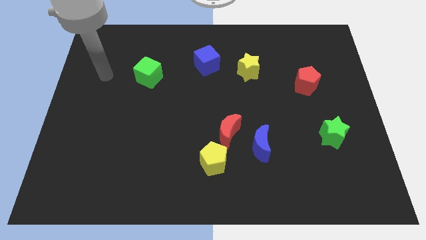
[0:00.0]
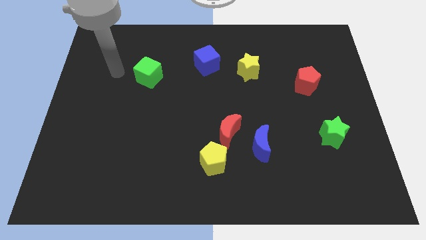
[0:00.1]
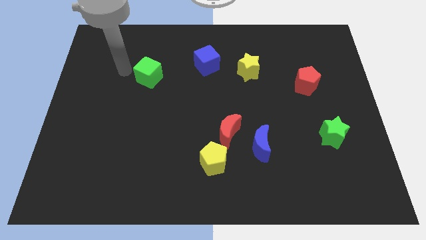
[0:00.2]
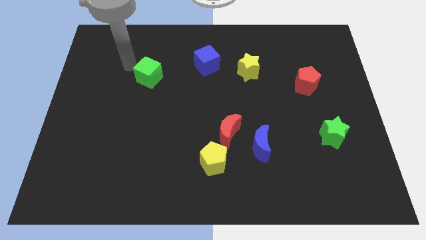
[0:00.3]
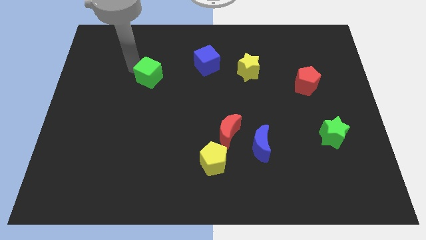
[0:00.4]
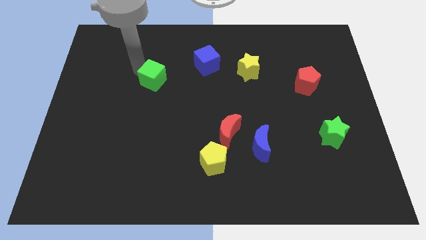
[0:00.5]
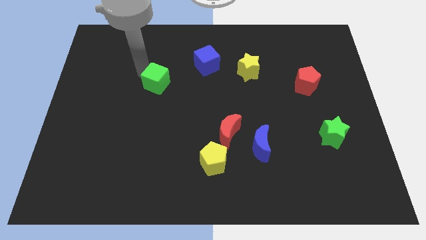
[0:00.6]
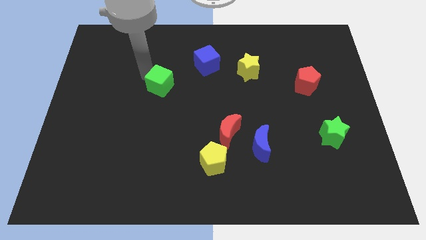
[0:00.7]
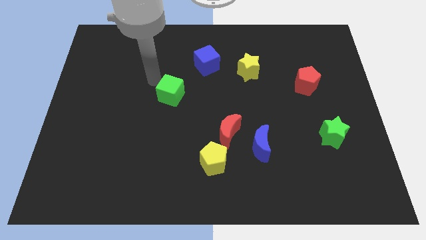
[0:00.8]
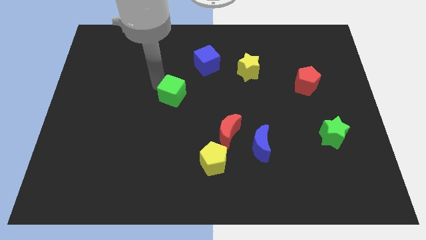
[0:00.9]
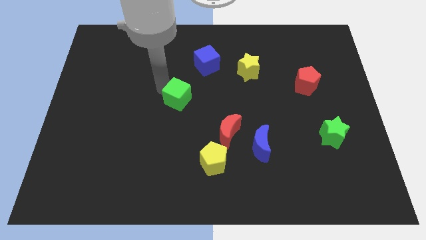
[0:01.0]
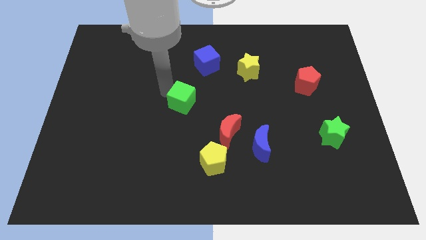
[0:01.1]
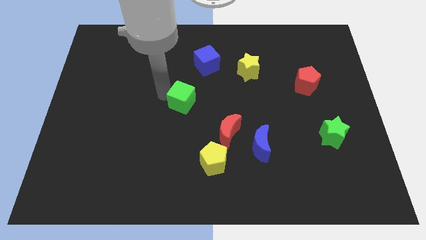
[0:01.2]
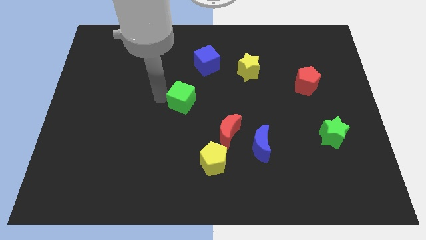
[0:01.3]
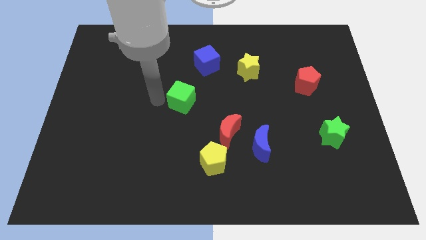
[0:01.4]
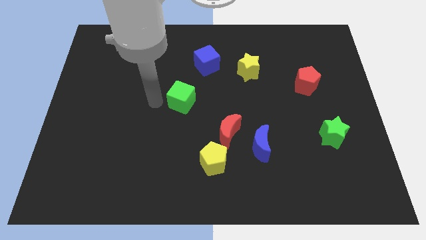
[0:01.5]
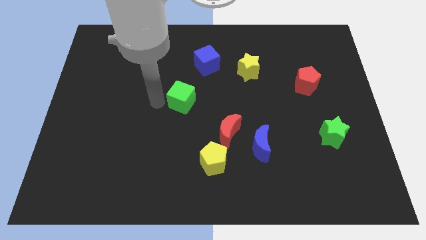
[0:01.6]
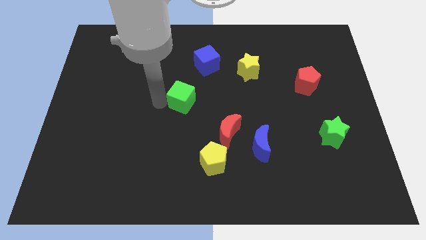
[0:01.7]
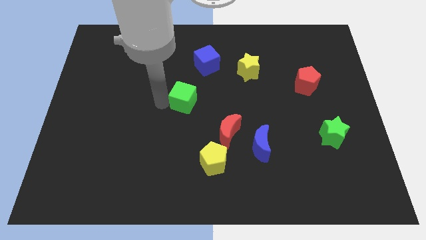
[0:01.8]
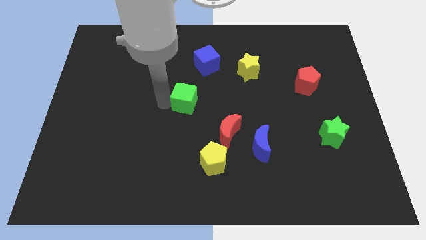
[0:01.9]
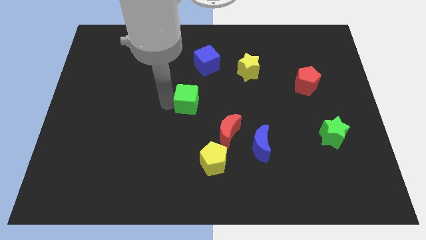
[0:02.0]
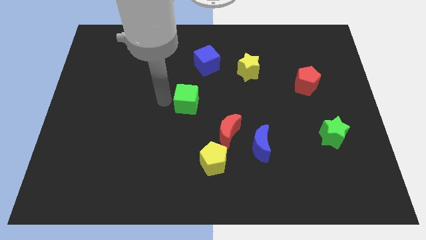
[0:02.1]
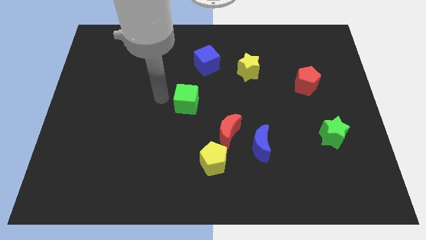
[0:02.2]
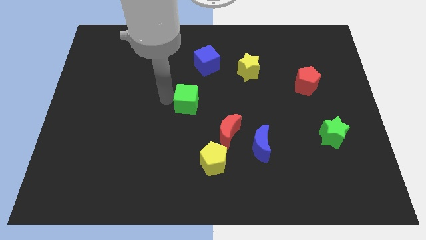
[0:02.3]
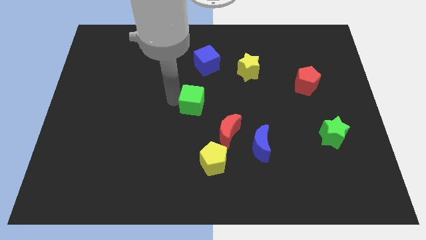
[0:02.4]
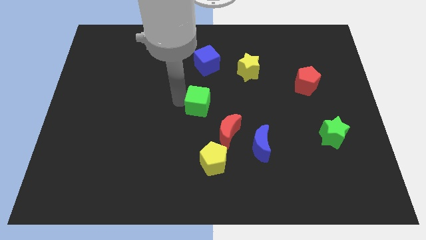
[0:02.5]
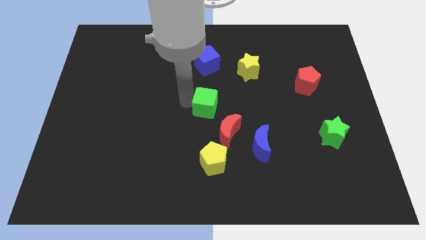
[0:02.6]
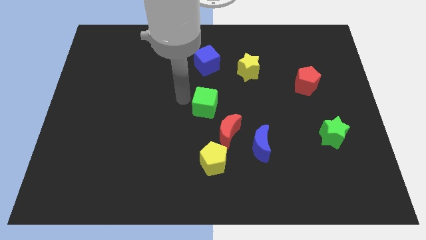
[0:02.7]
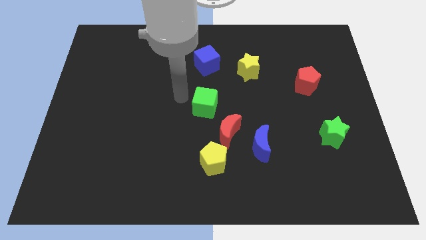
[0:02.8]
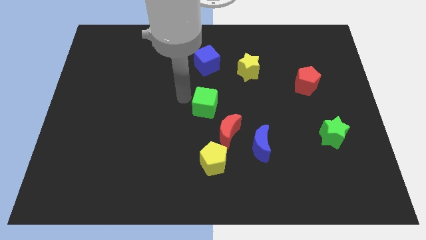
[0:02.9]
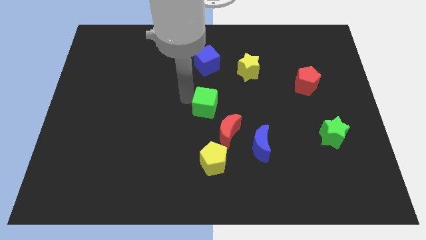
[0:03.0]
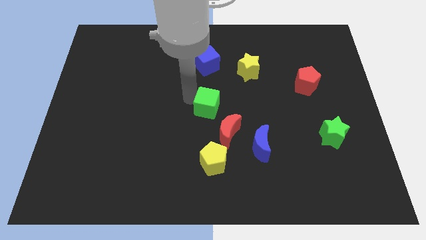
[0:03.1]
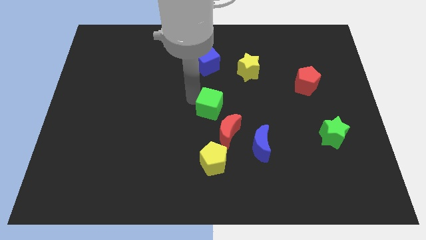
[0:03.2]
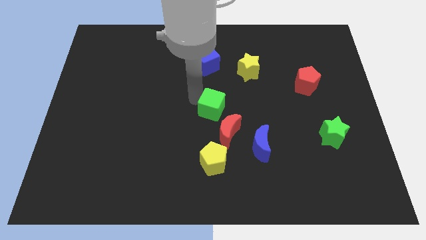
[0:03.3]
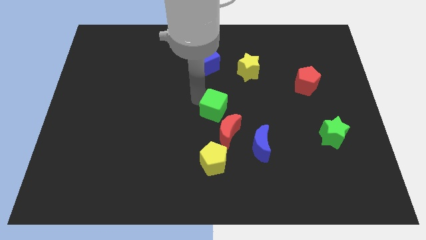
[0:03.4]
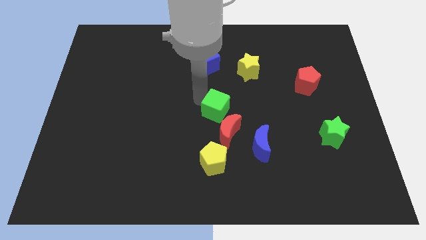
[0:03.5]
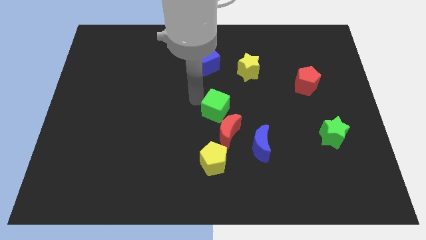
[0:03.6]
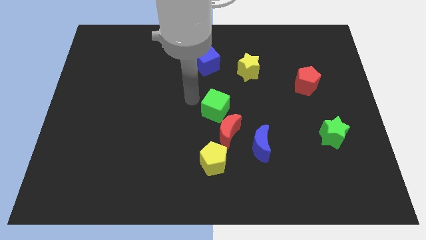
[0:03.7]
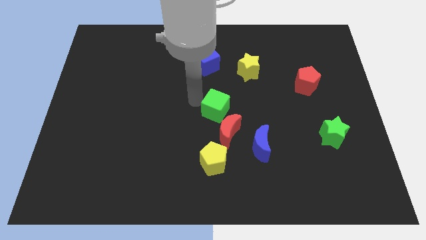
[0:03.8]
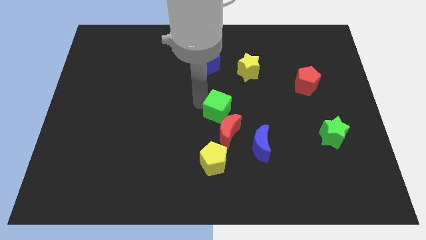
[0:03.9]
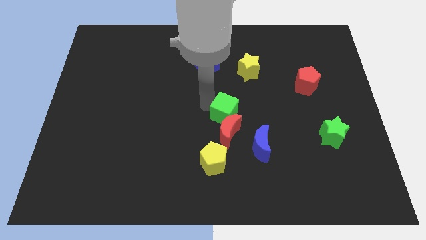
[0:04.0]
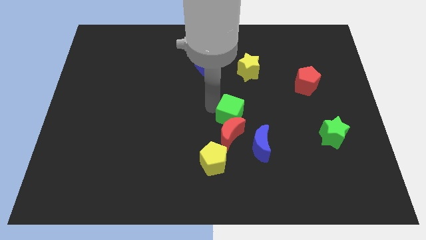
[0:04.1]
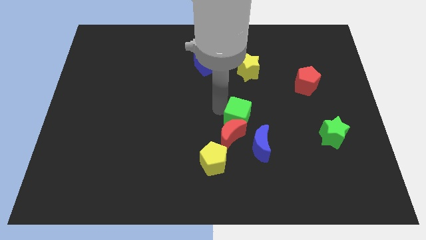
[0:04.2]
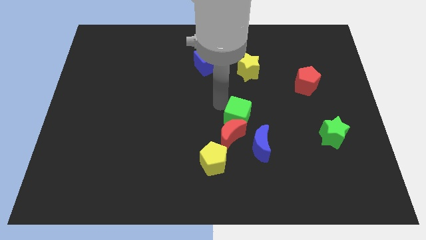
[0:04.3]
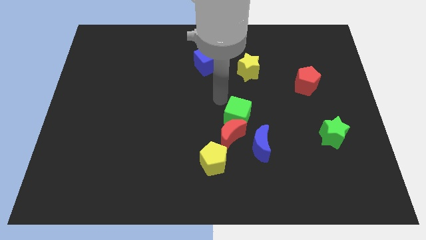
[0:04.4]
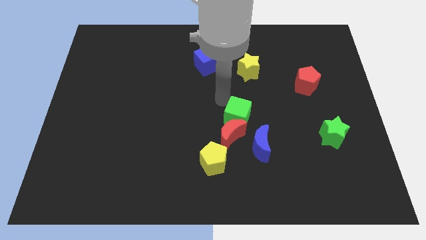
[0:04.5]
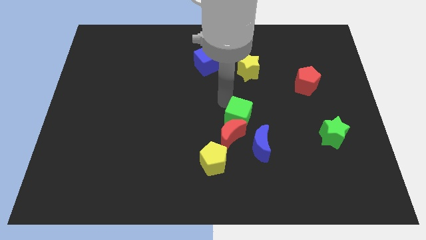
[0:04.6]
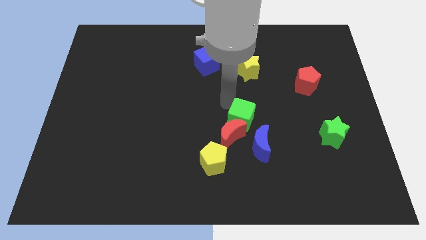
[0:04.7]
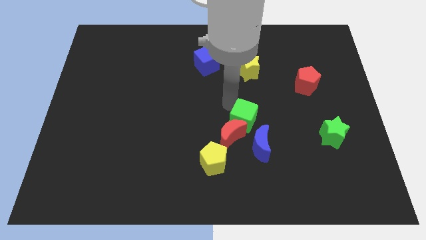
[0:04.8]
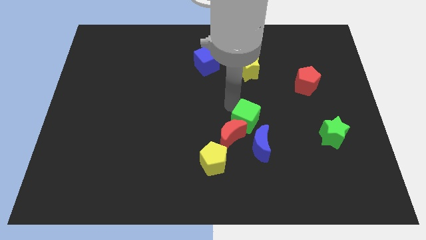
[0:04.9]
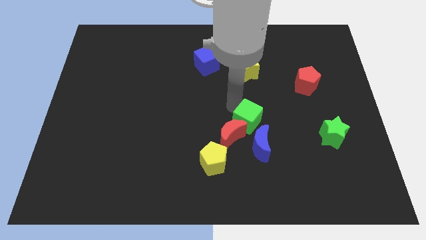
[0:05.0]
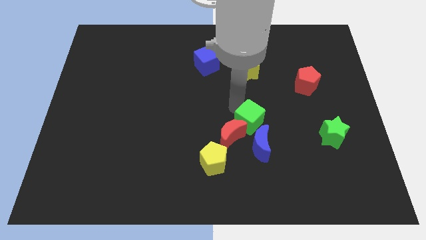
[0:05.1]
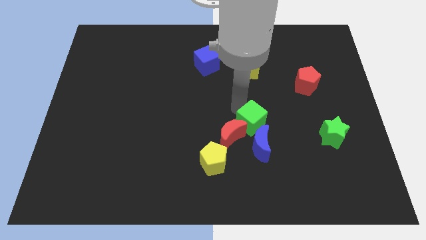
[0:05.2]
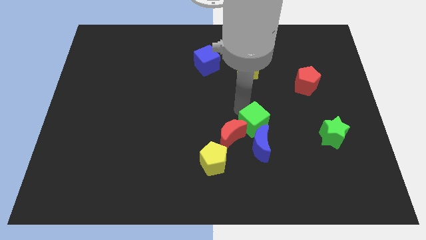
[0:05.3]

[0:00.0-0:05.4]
put the green cube to the blue moon

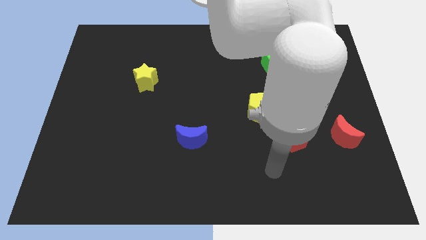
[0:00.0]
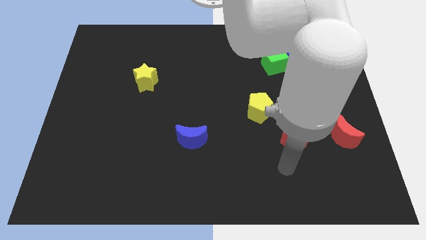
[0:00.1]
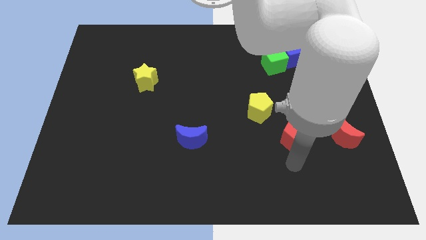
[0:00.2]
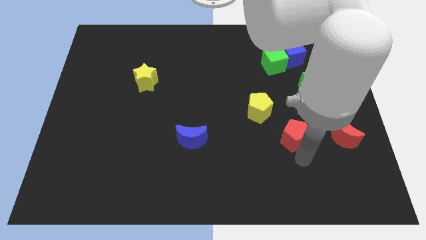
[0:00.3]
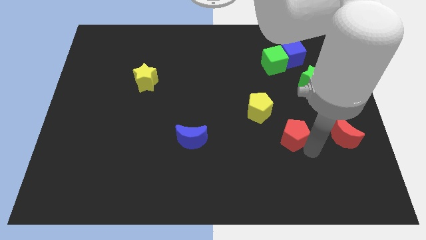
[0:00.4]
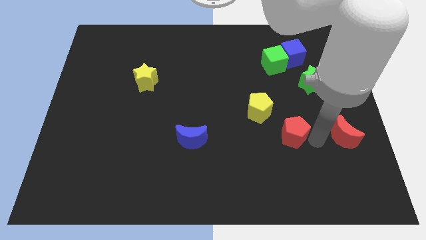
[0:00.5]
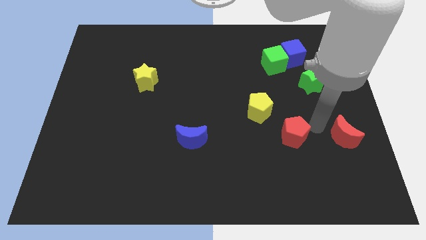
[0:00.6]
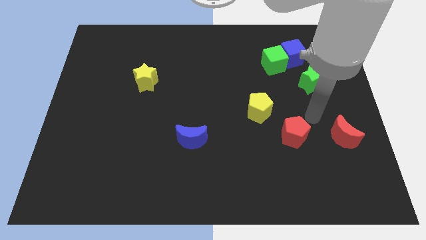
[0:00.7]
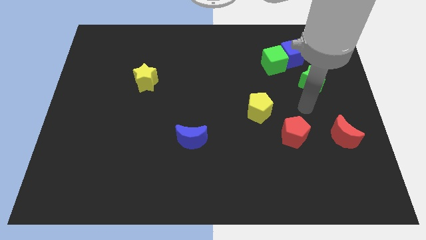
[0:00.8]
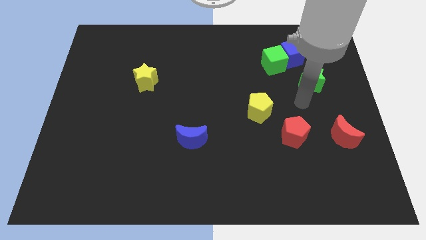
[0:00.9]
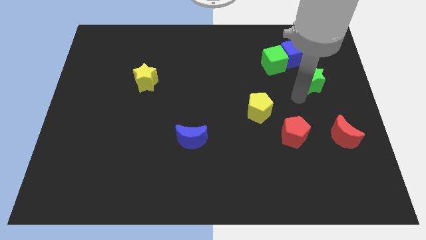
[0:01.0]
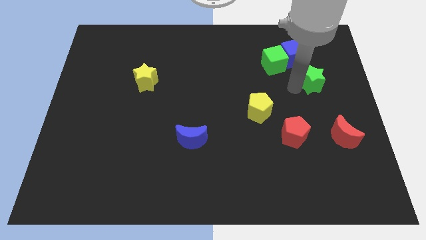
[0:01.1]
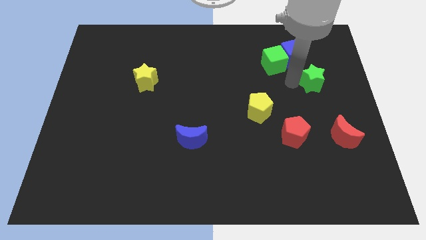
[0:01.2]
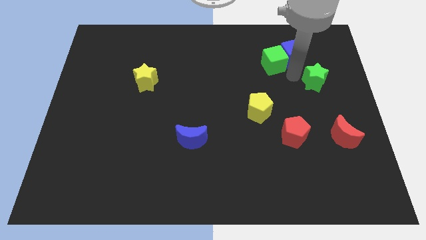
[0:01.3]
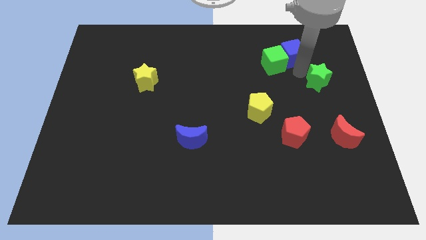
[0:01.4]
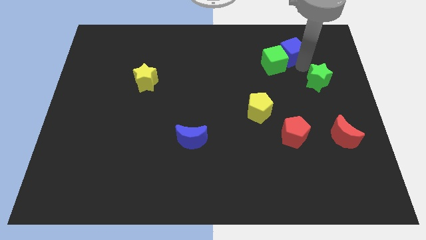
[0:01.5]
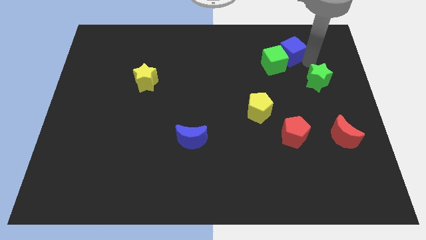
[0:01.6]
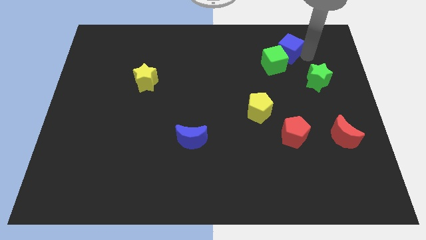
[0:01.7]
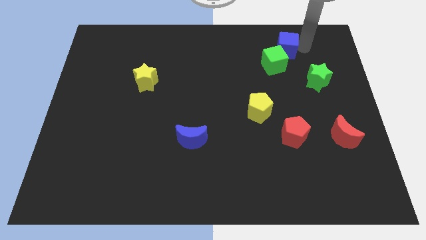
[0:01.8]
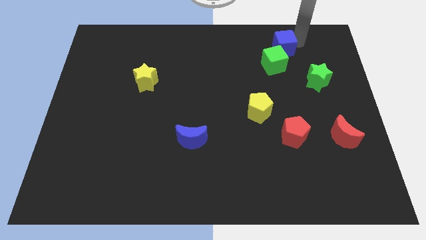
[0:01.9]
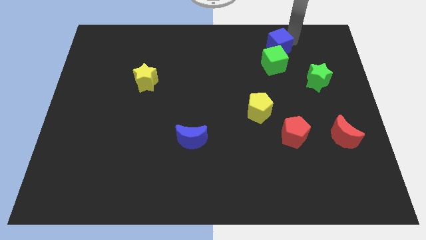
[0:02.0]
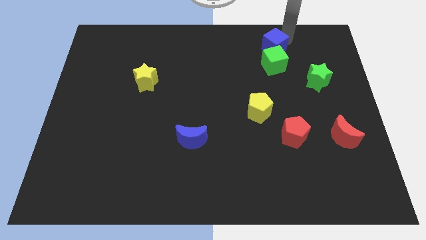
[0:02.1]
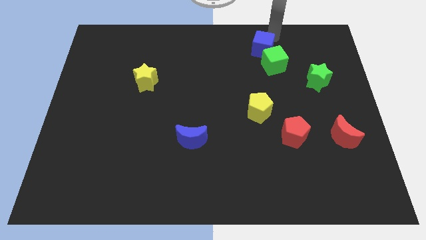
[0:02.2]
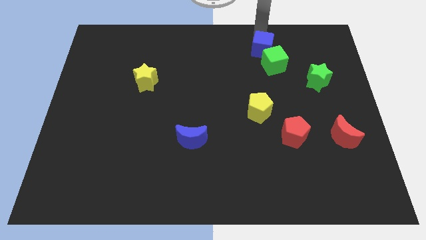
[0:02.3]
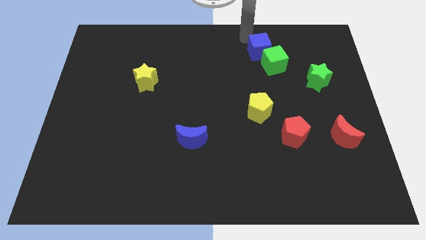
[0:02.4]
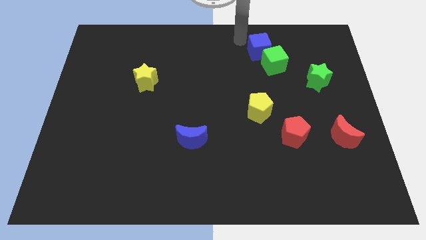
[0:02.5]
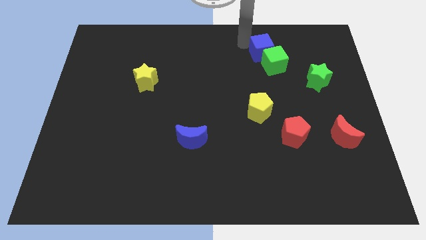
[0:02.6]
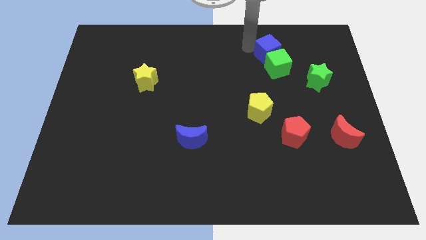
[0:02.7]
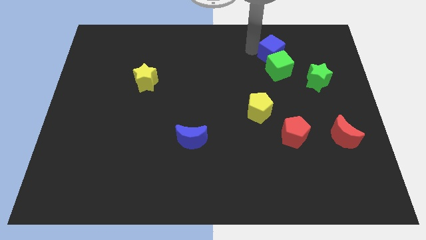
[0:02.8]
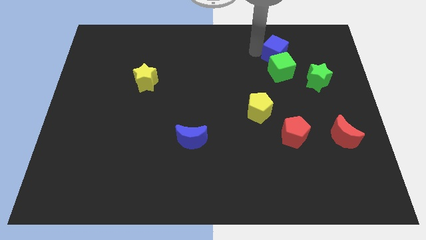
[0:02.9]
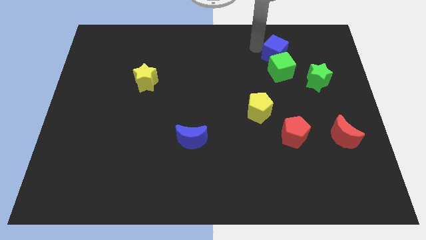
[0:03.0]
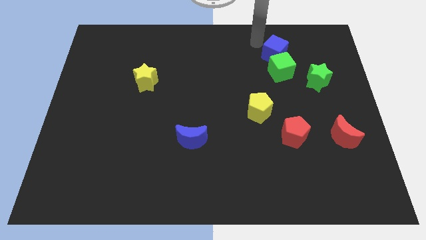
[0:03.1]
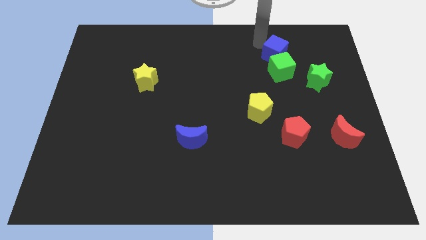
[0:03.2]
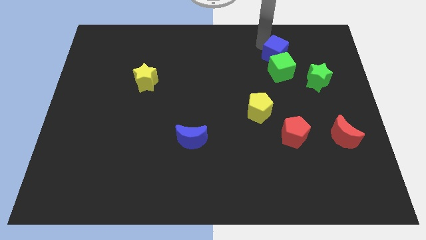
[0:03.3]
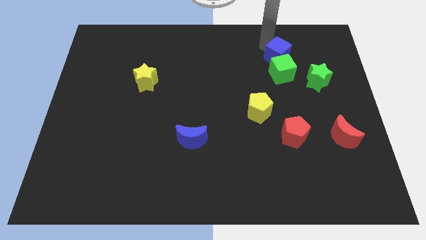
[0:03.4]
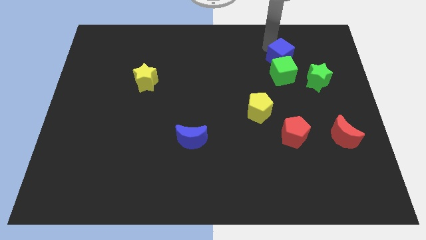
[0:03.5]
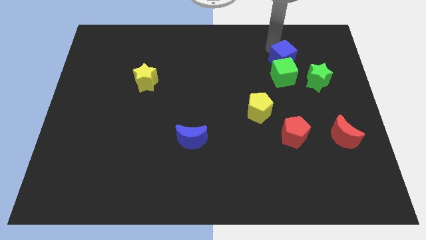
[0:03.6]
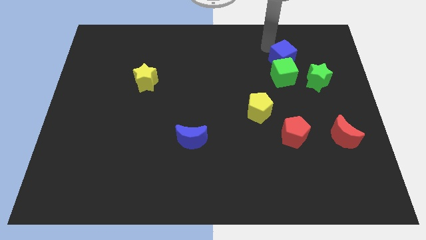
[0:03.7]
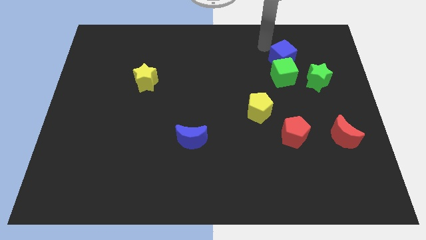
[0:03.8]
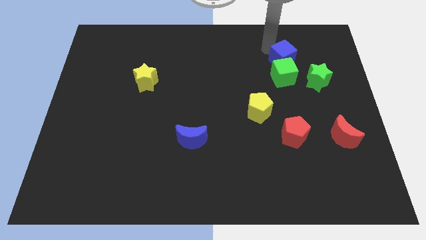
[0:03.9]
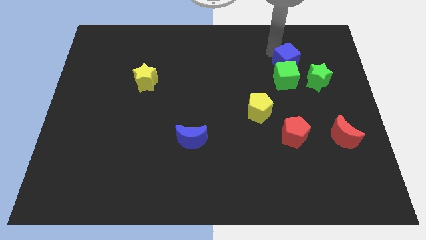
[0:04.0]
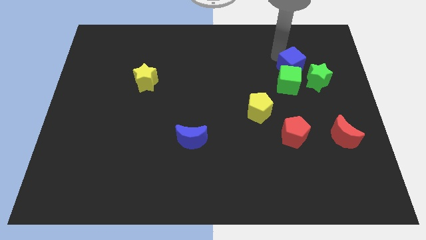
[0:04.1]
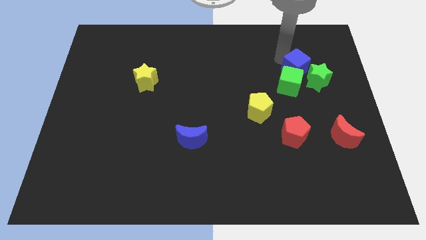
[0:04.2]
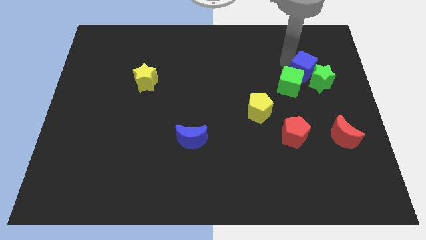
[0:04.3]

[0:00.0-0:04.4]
push the blue cube close to the green star
